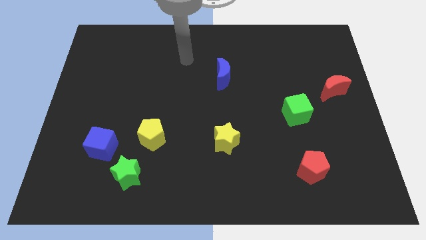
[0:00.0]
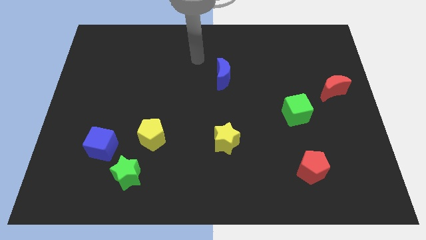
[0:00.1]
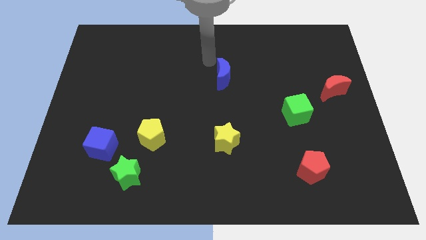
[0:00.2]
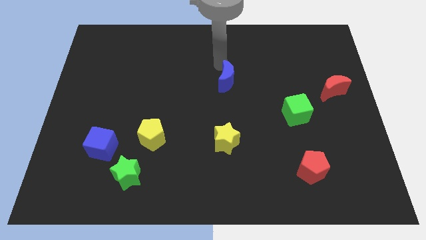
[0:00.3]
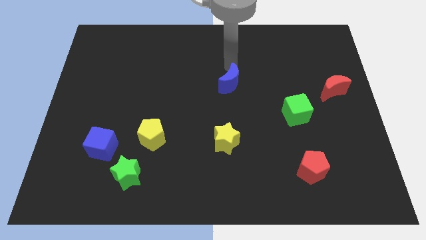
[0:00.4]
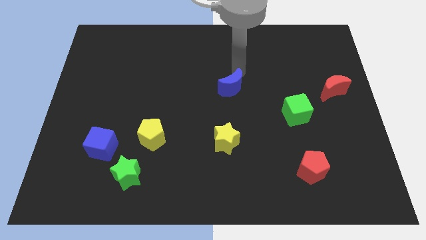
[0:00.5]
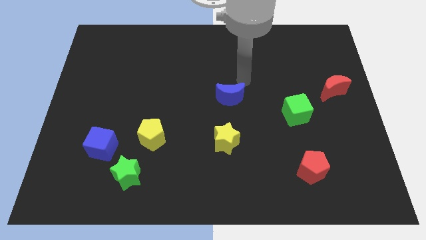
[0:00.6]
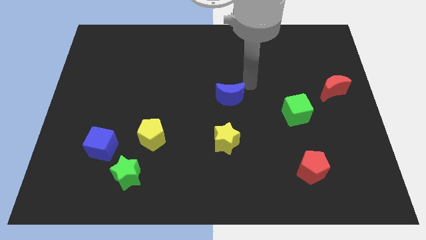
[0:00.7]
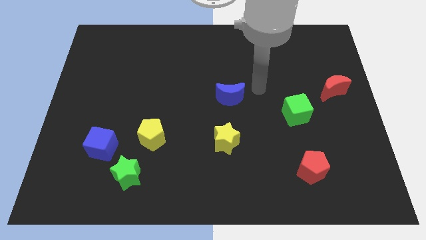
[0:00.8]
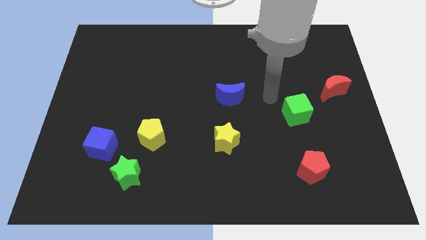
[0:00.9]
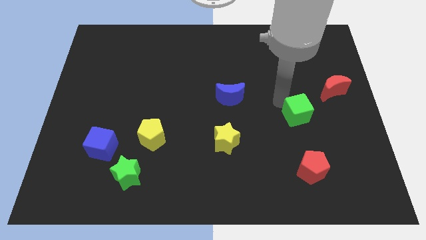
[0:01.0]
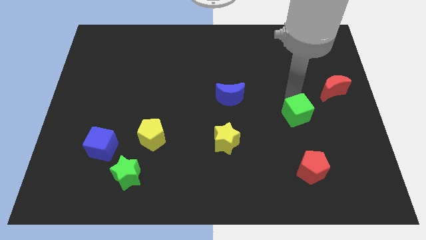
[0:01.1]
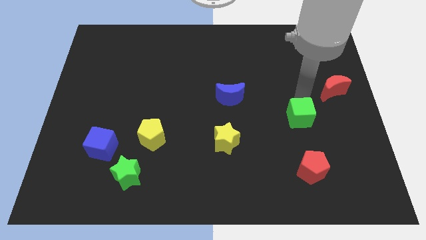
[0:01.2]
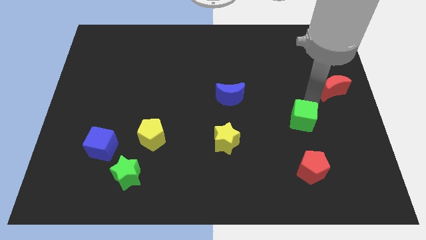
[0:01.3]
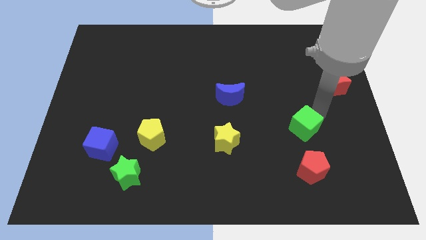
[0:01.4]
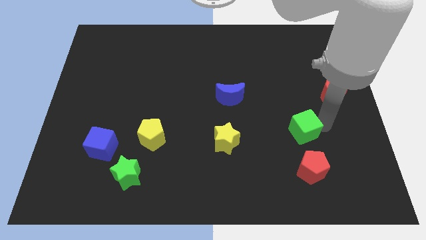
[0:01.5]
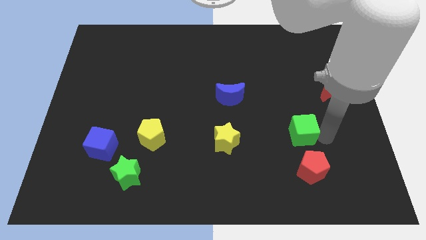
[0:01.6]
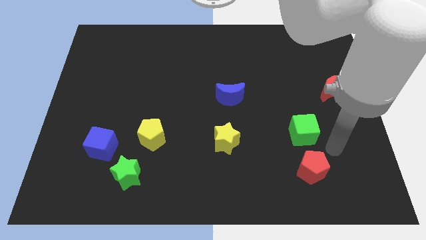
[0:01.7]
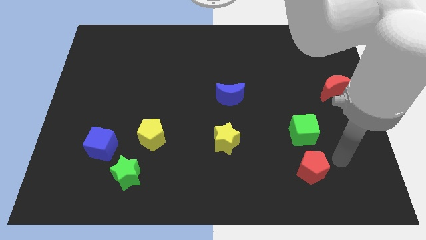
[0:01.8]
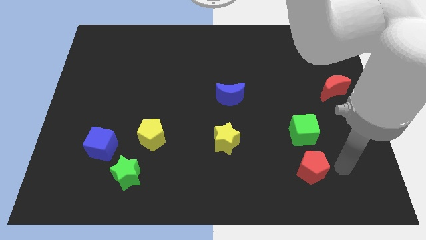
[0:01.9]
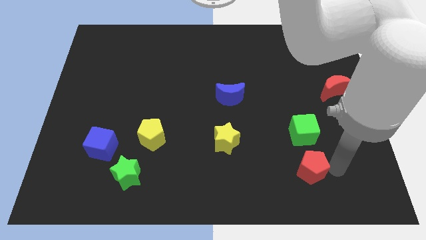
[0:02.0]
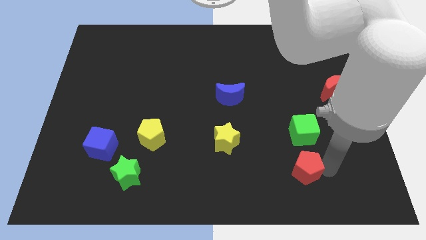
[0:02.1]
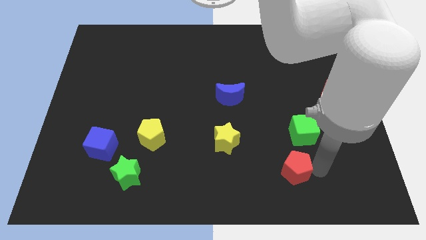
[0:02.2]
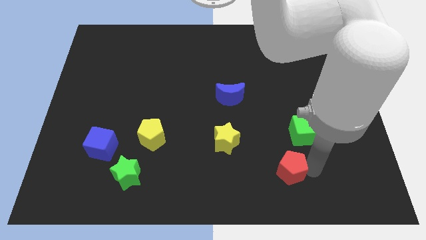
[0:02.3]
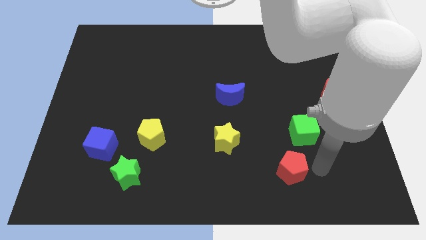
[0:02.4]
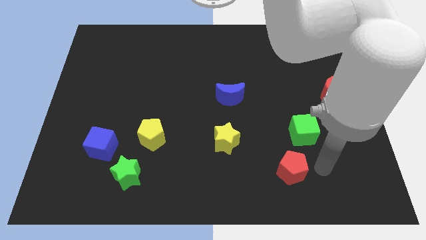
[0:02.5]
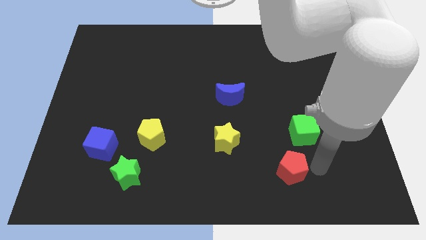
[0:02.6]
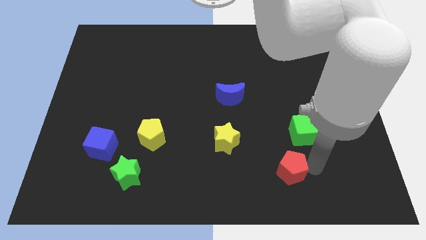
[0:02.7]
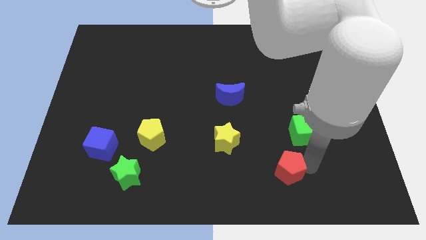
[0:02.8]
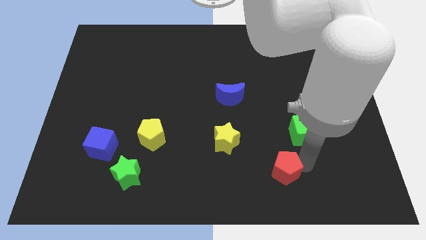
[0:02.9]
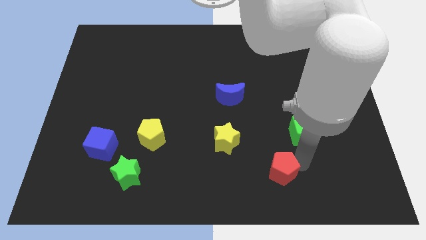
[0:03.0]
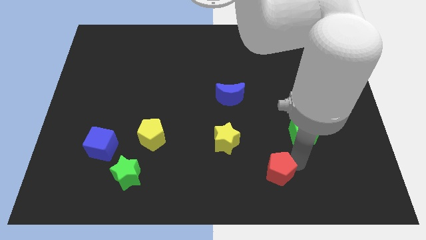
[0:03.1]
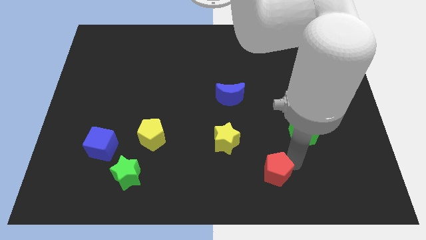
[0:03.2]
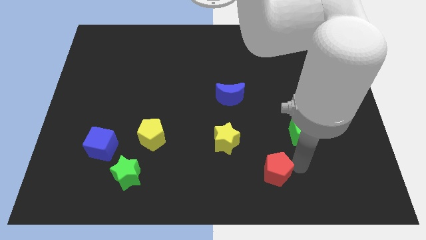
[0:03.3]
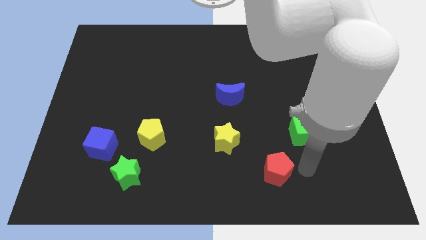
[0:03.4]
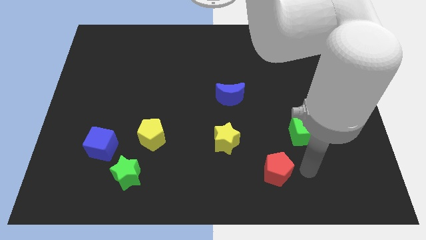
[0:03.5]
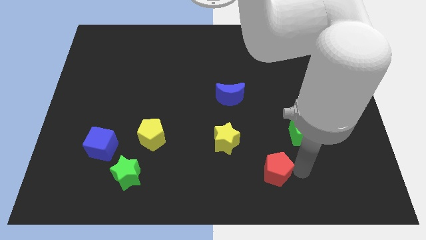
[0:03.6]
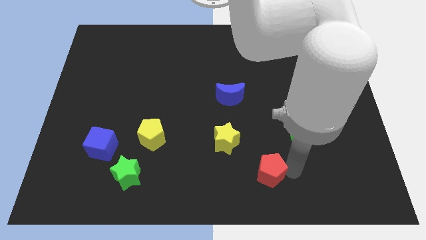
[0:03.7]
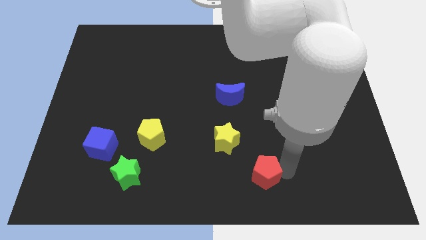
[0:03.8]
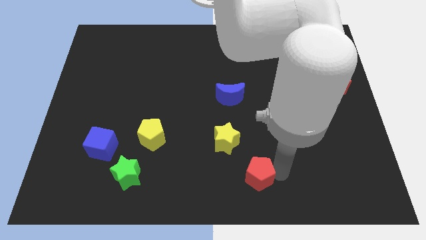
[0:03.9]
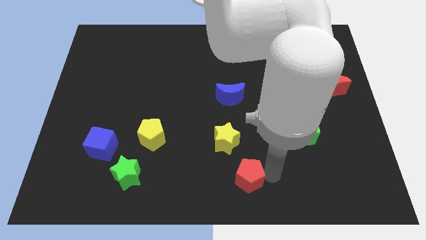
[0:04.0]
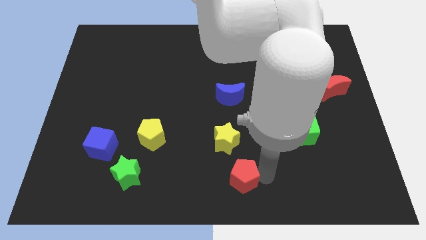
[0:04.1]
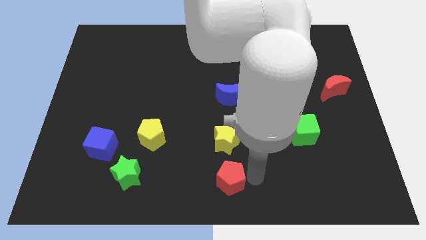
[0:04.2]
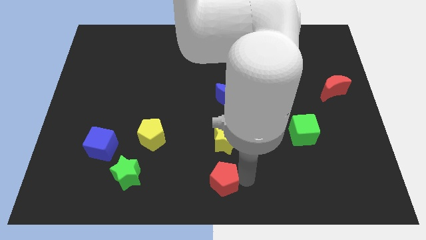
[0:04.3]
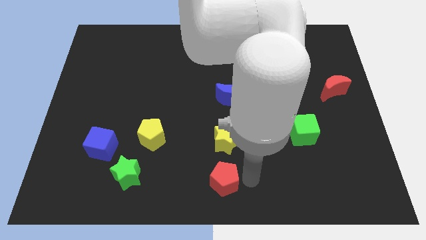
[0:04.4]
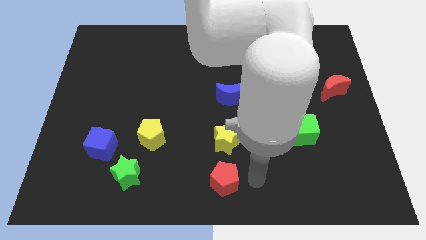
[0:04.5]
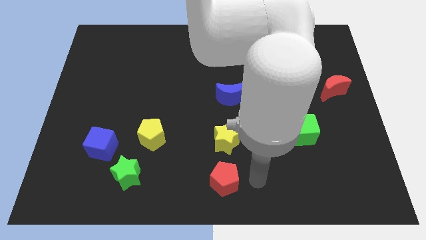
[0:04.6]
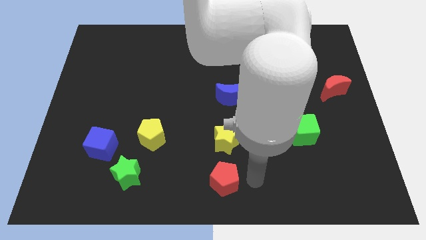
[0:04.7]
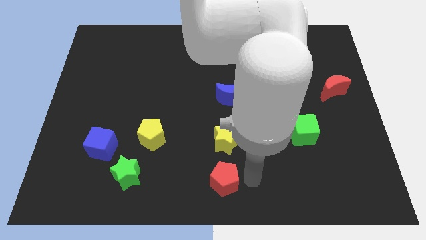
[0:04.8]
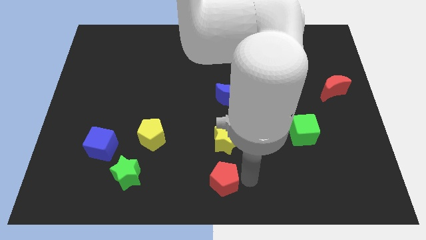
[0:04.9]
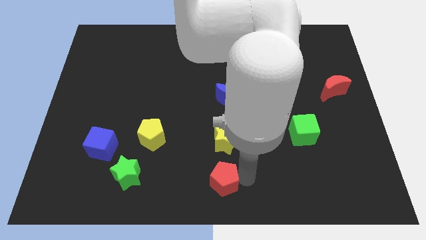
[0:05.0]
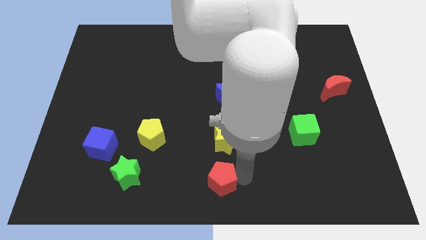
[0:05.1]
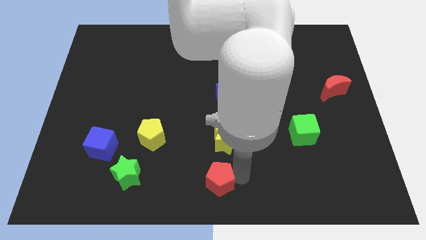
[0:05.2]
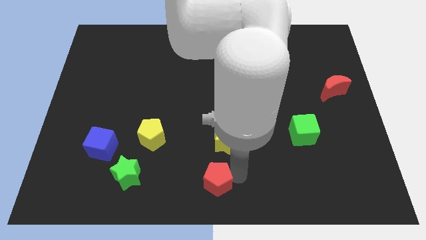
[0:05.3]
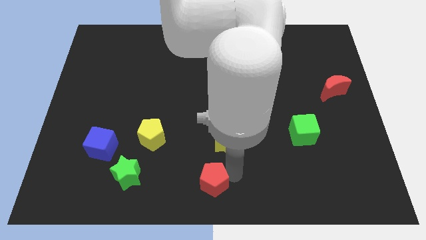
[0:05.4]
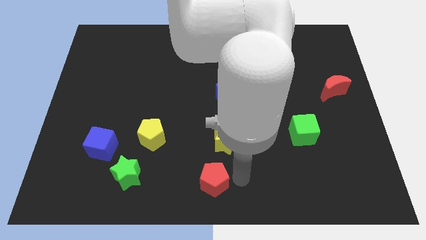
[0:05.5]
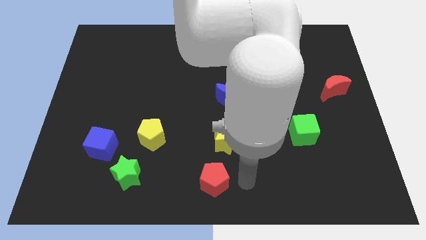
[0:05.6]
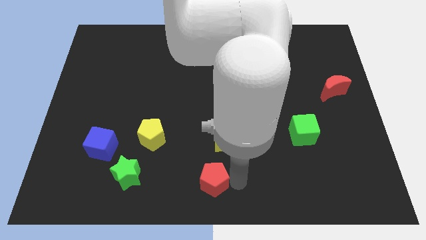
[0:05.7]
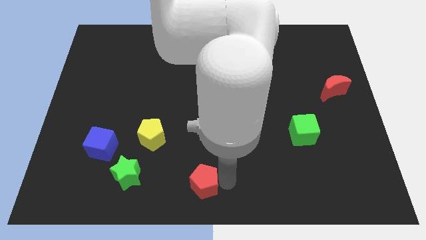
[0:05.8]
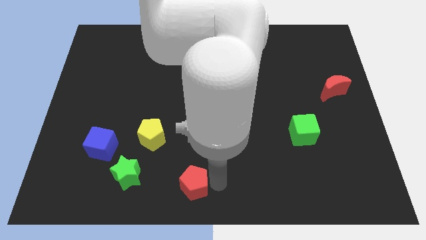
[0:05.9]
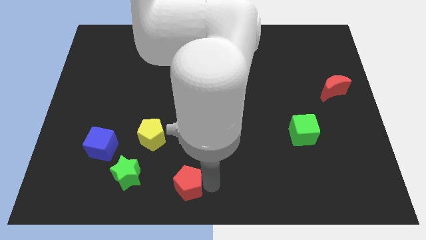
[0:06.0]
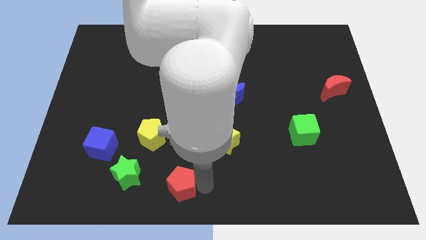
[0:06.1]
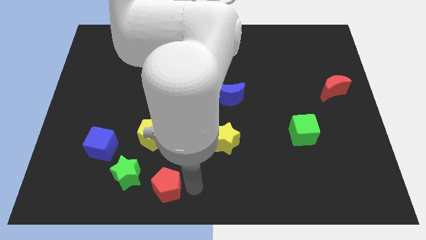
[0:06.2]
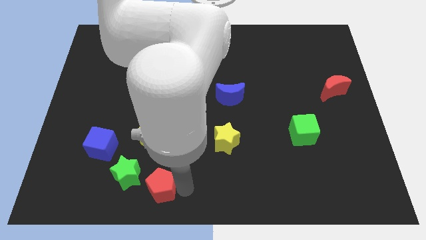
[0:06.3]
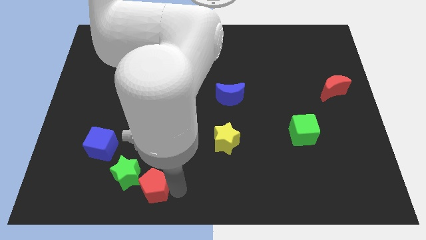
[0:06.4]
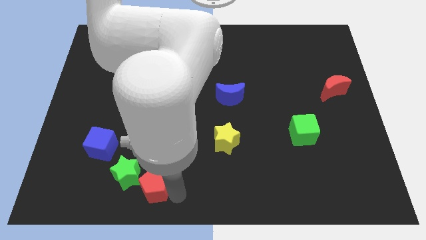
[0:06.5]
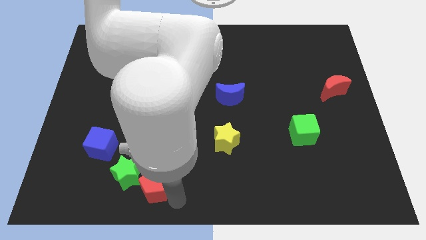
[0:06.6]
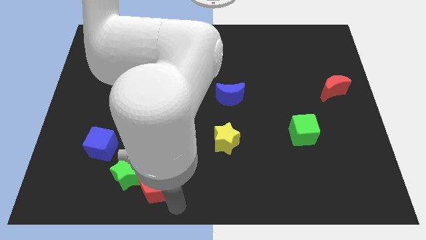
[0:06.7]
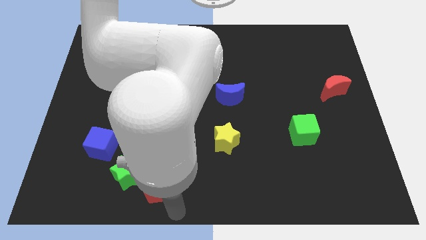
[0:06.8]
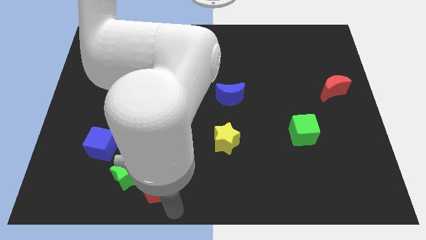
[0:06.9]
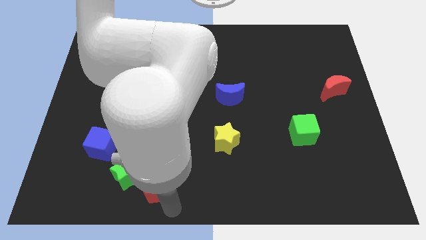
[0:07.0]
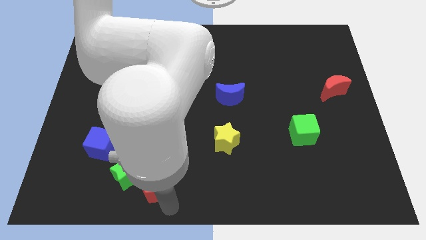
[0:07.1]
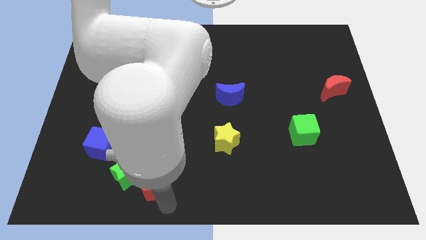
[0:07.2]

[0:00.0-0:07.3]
move the red pentagon to the green star

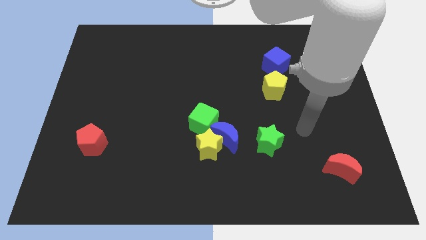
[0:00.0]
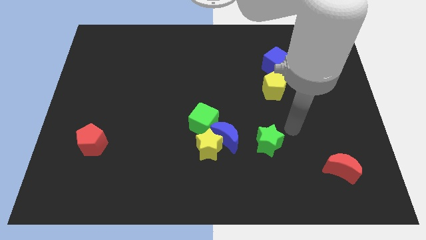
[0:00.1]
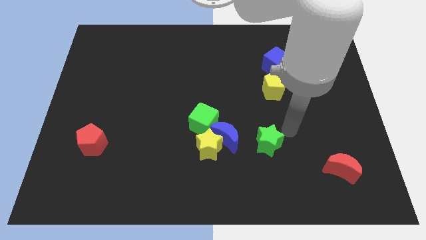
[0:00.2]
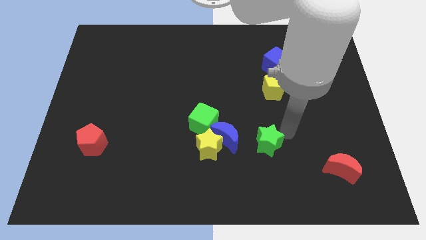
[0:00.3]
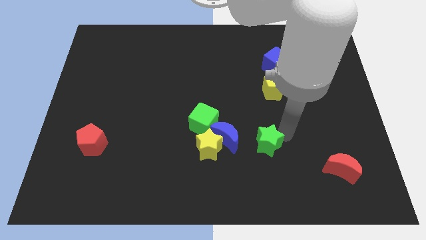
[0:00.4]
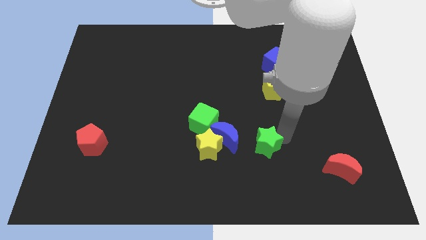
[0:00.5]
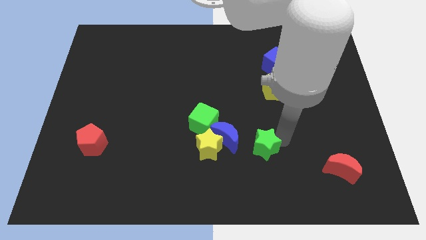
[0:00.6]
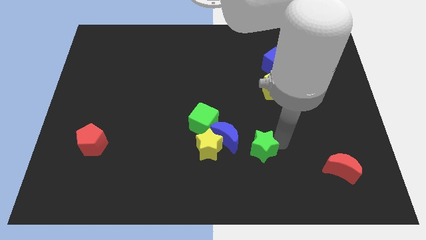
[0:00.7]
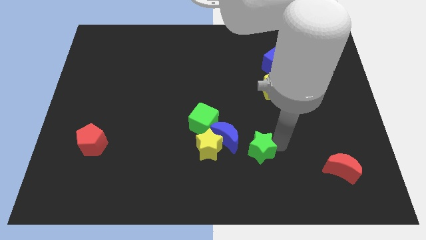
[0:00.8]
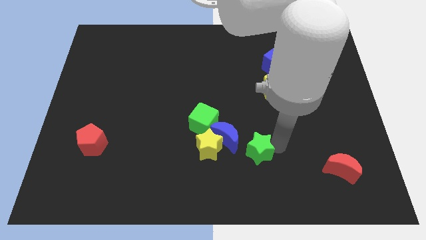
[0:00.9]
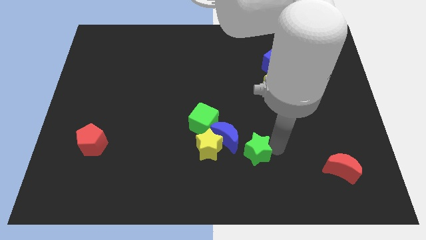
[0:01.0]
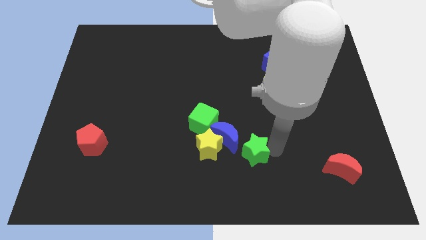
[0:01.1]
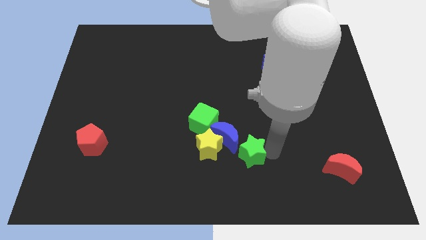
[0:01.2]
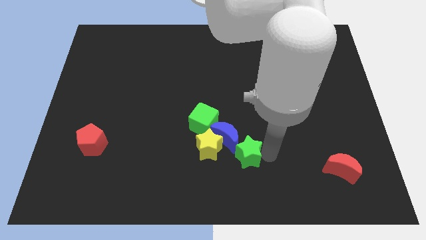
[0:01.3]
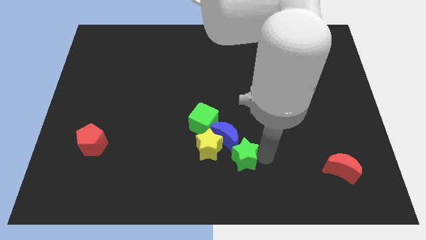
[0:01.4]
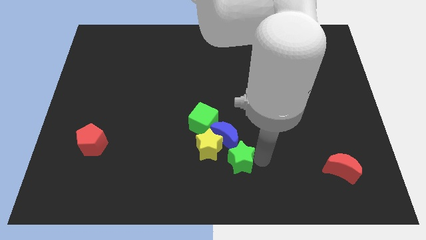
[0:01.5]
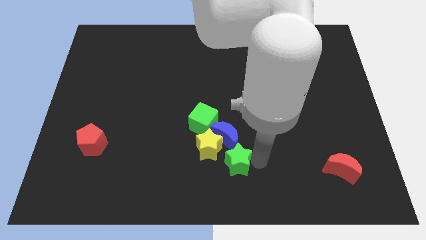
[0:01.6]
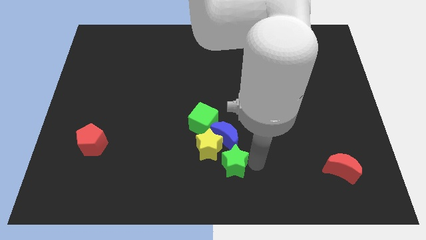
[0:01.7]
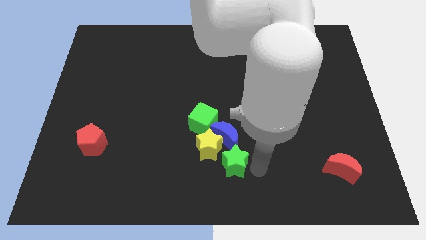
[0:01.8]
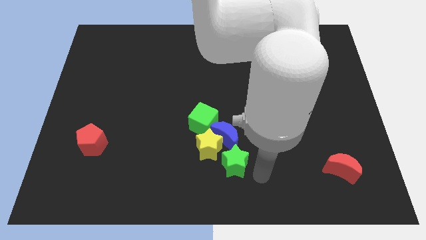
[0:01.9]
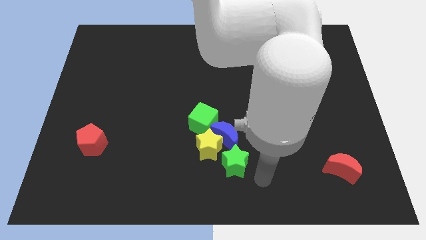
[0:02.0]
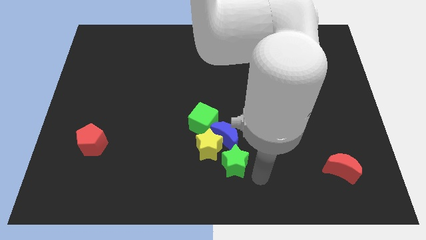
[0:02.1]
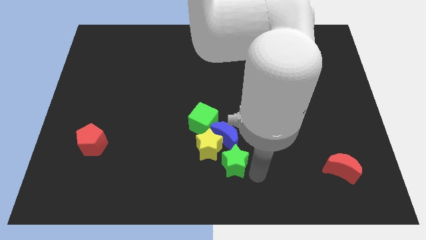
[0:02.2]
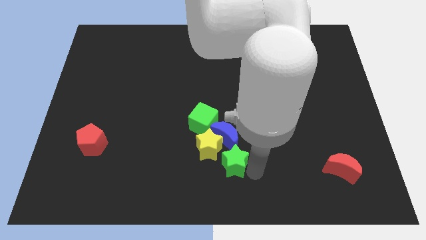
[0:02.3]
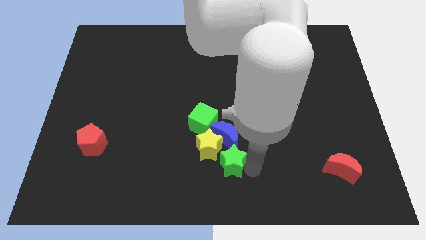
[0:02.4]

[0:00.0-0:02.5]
move the green star to the yellow star
